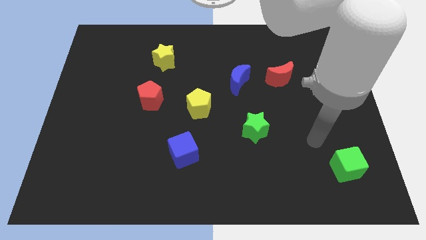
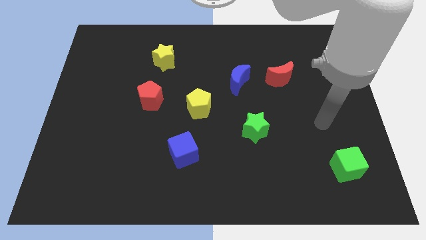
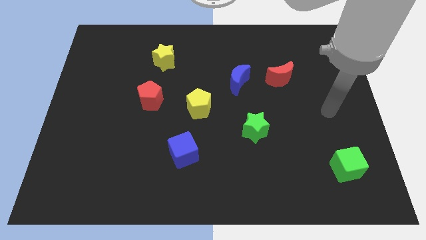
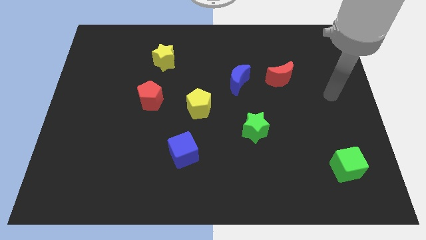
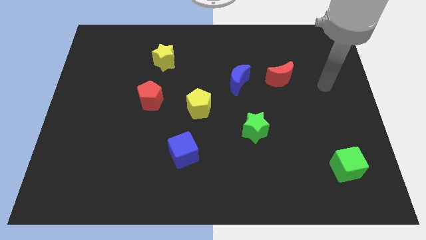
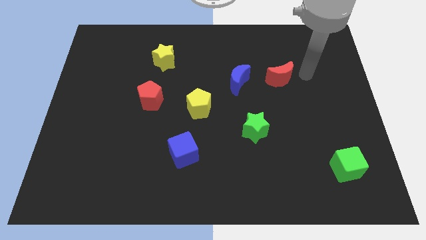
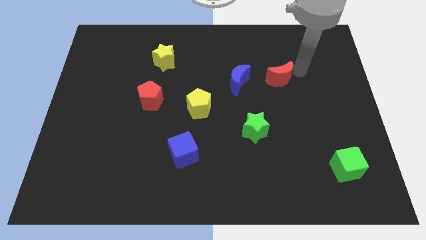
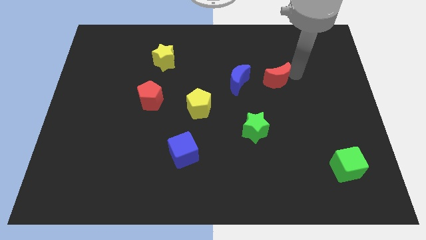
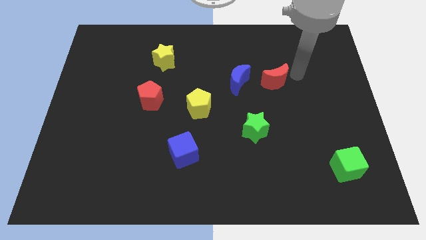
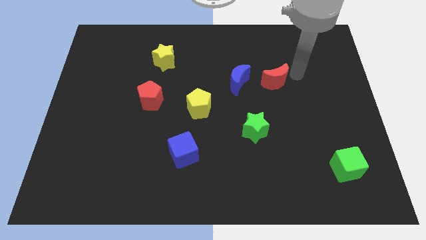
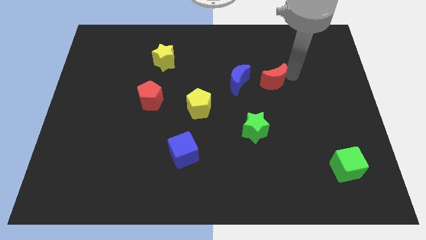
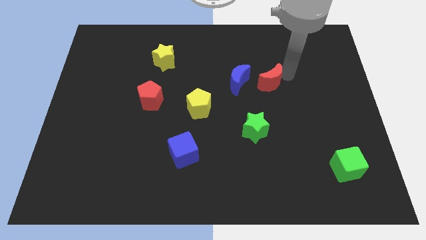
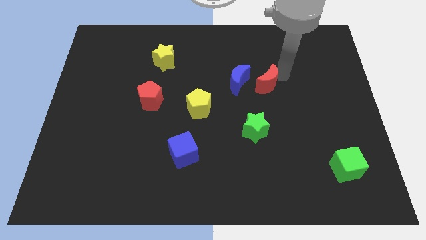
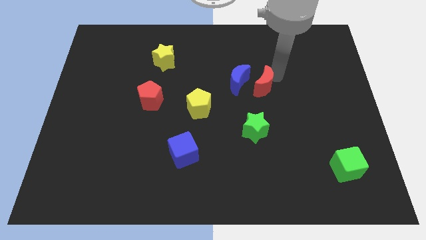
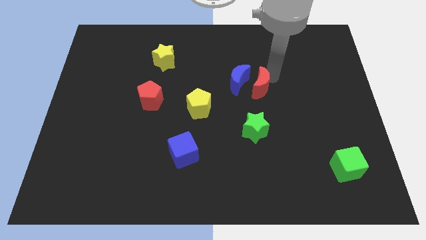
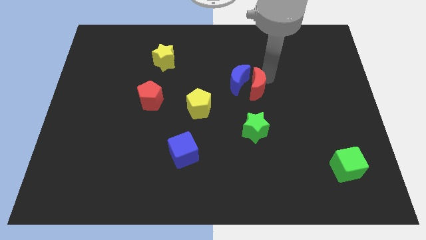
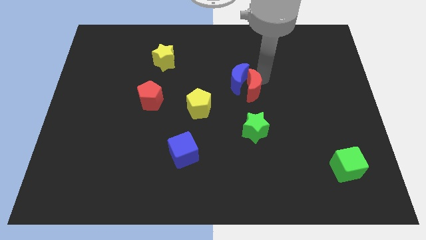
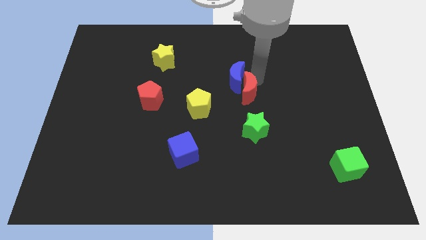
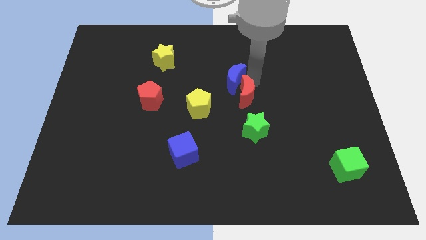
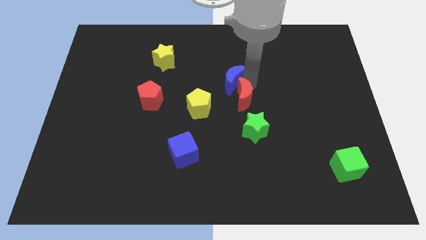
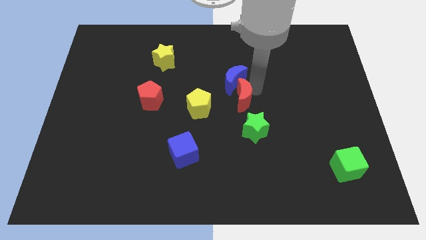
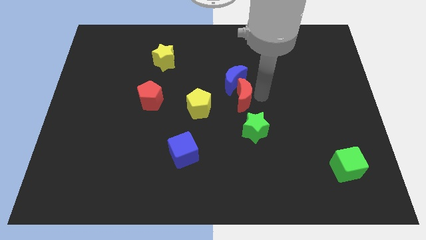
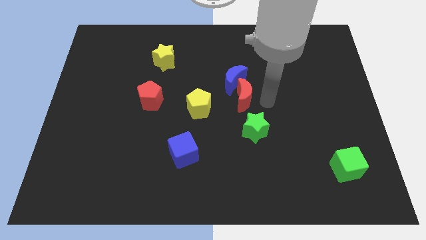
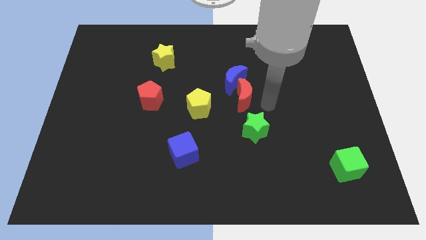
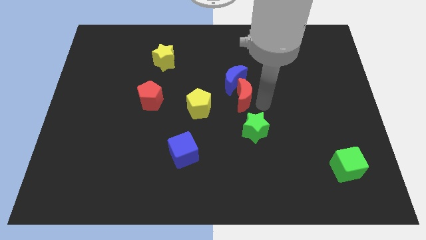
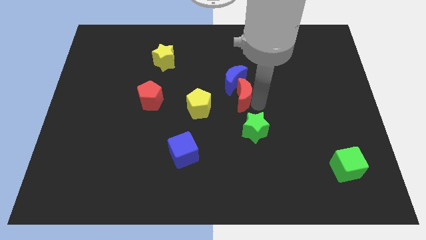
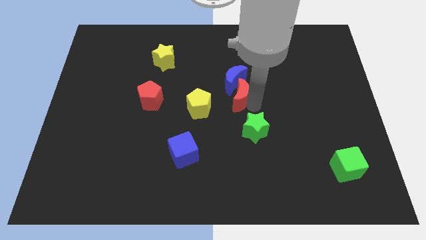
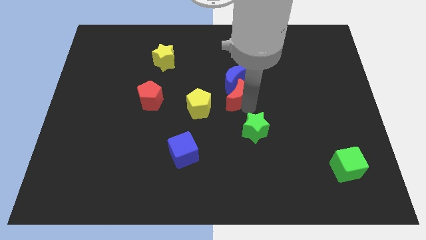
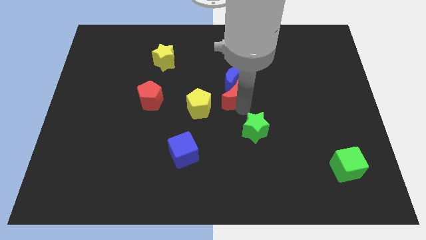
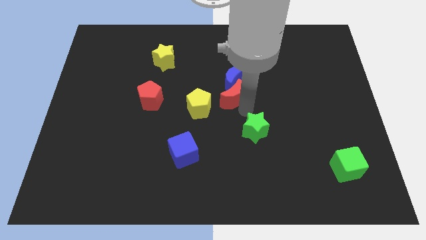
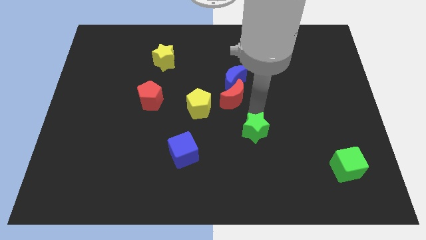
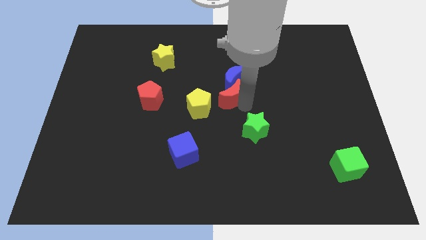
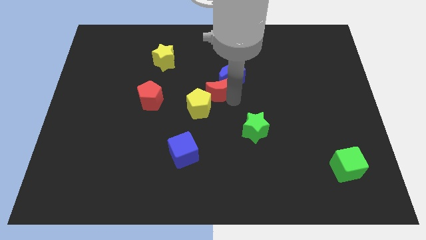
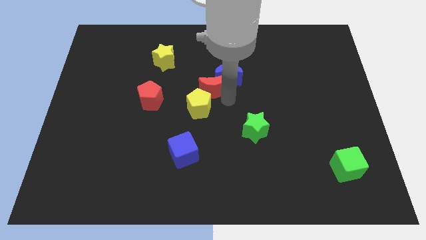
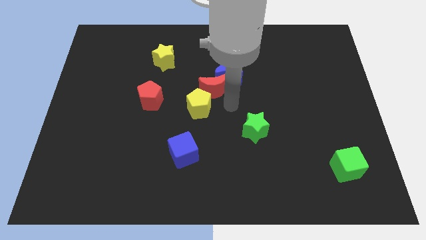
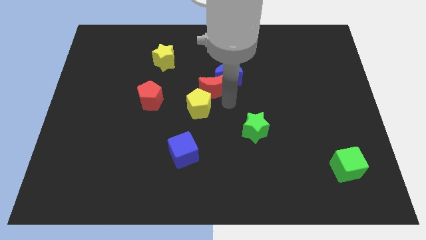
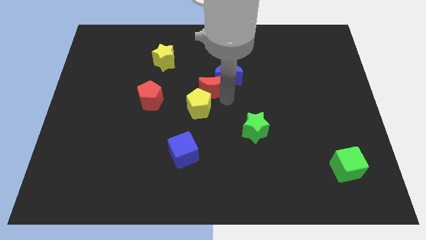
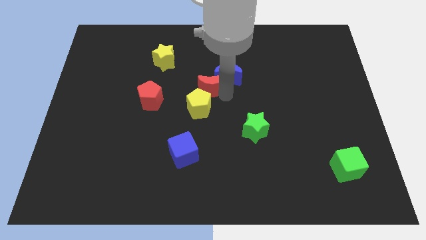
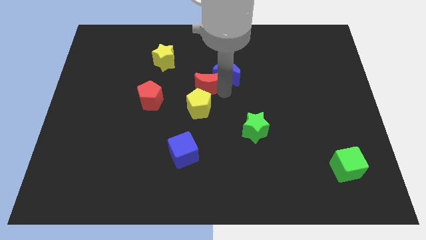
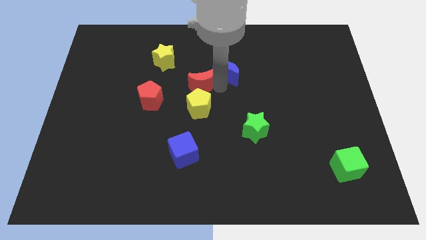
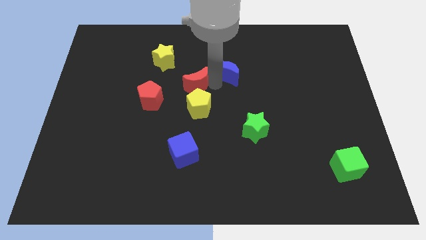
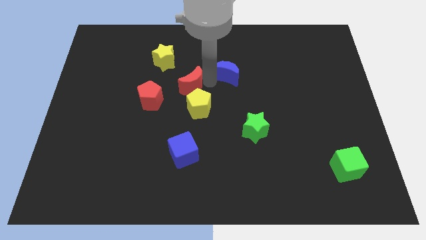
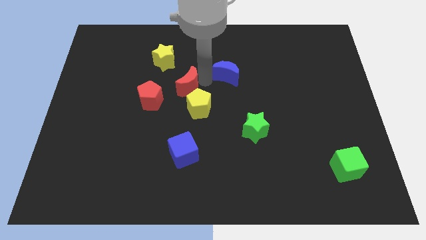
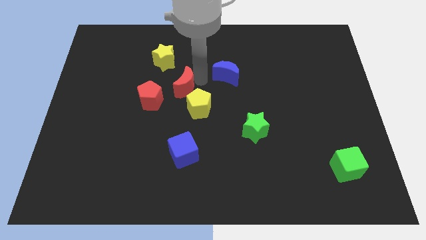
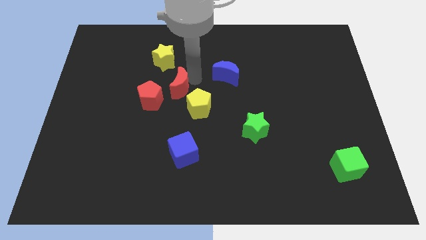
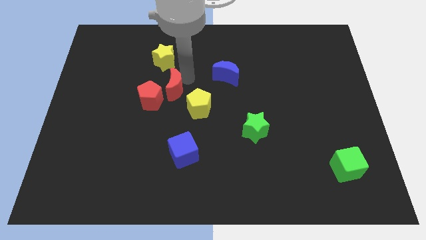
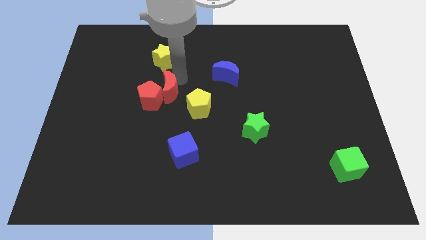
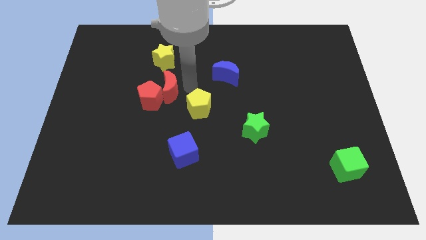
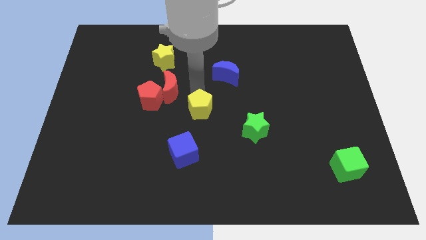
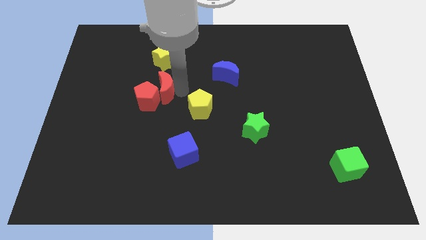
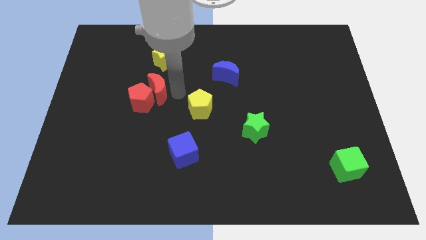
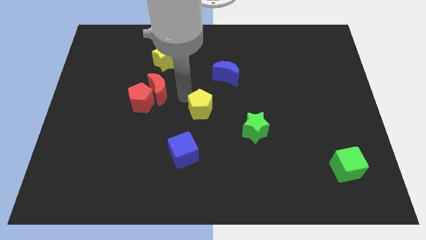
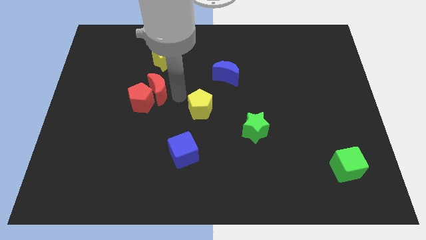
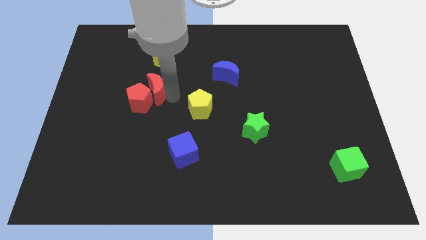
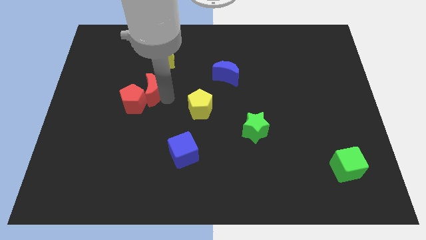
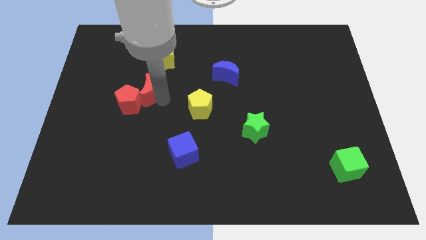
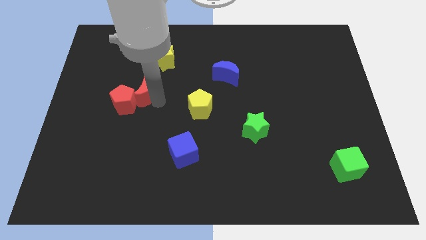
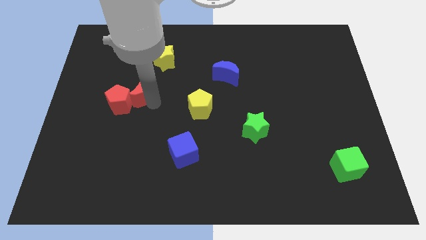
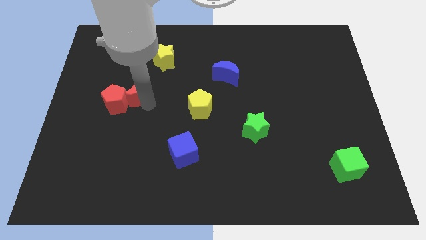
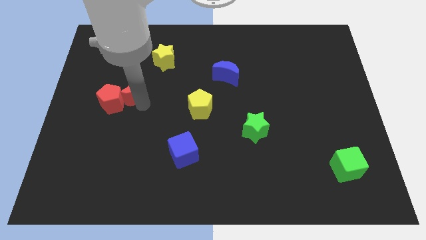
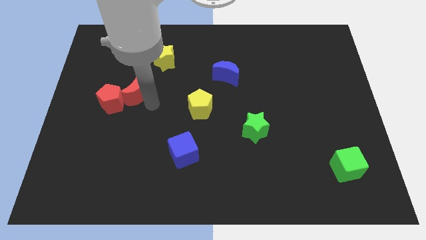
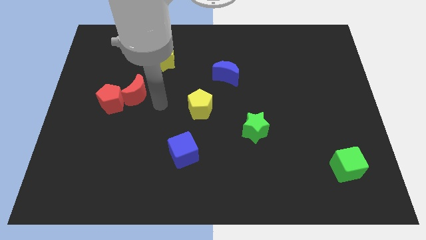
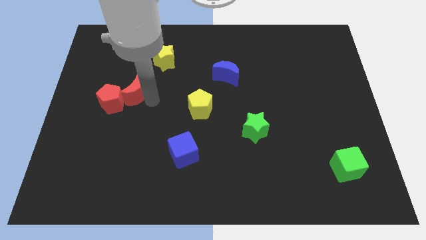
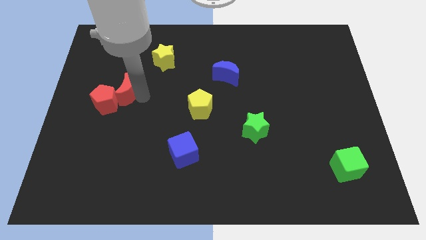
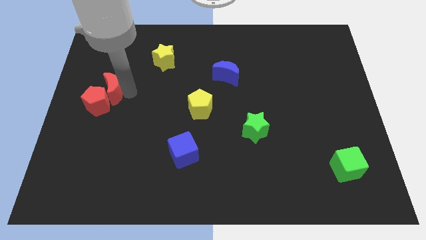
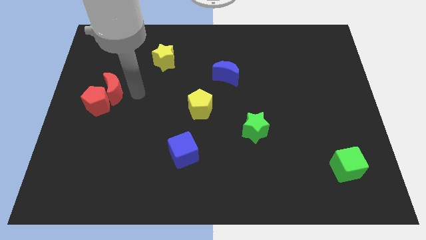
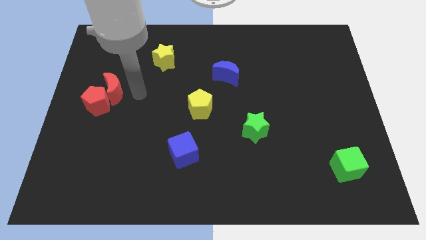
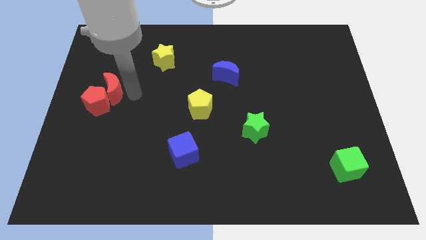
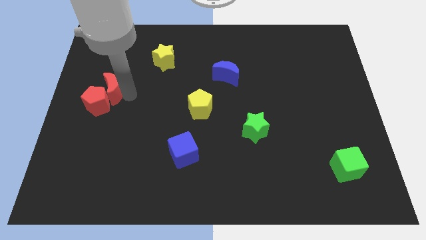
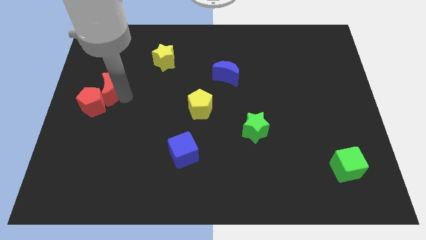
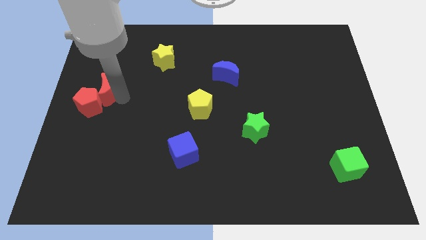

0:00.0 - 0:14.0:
move the red moon to the left side
